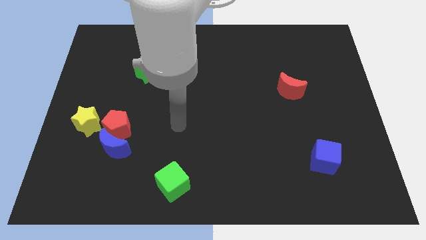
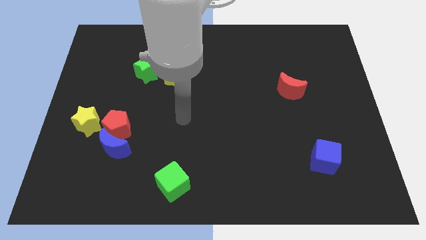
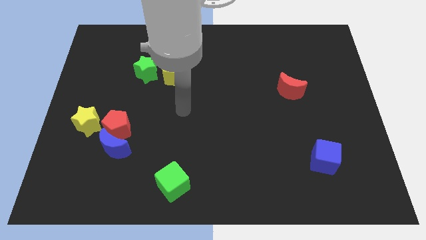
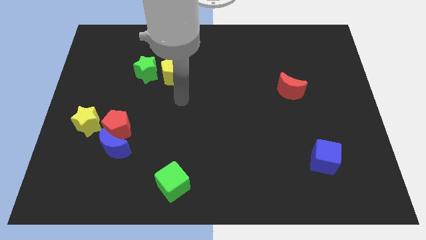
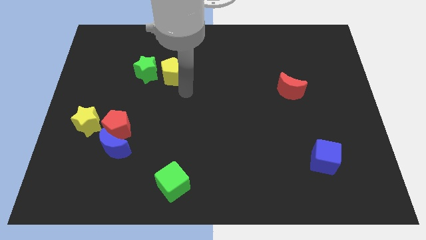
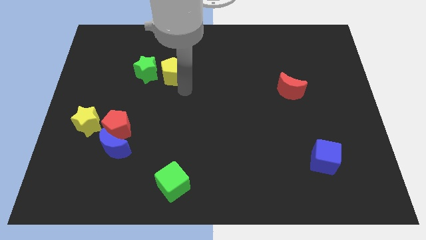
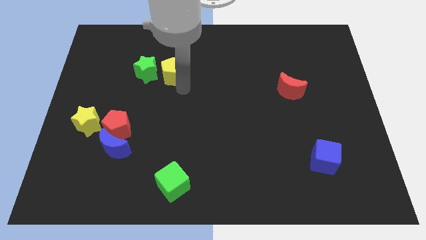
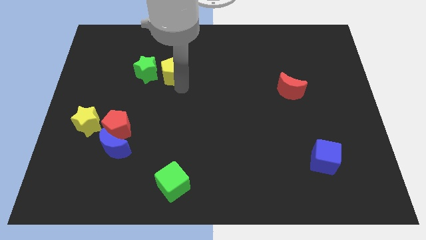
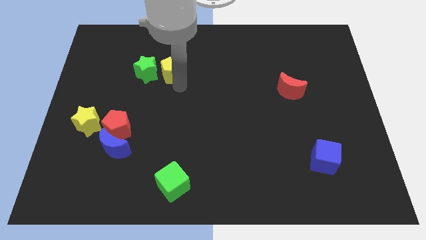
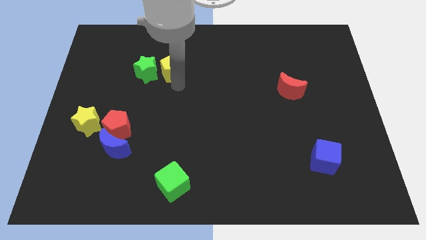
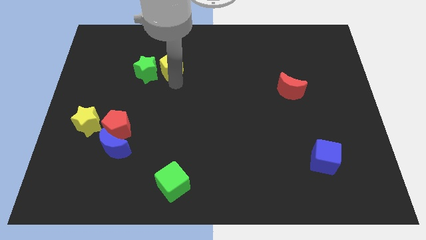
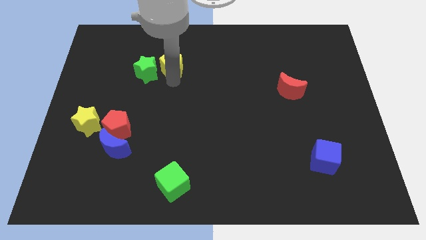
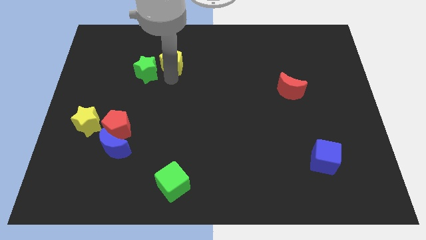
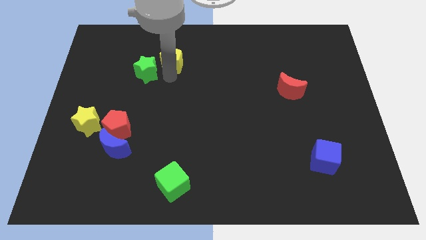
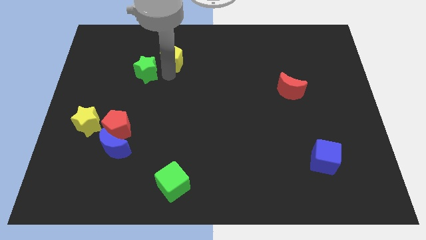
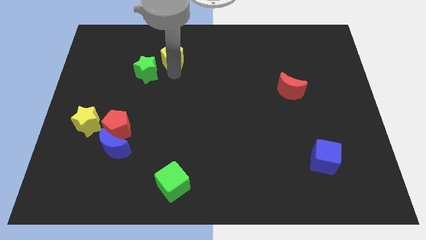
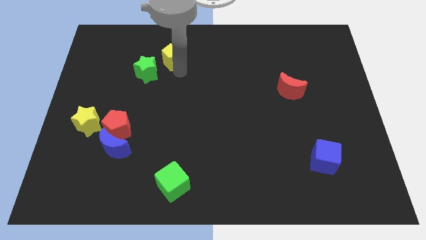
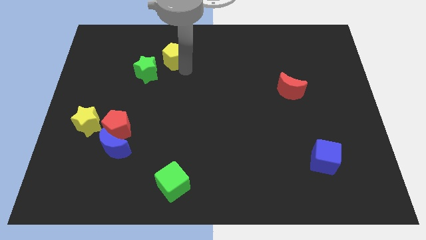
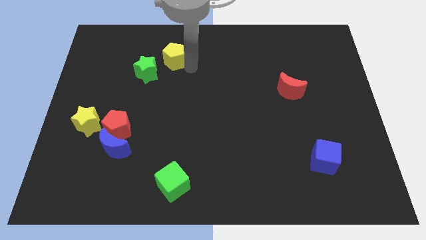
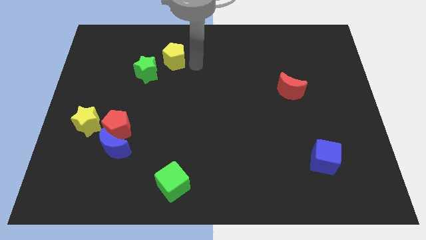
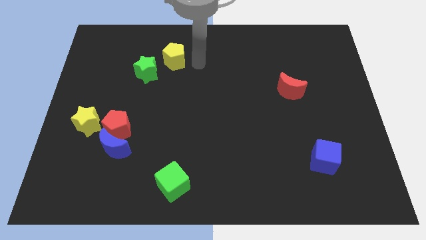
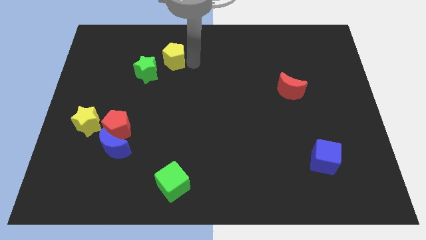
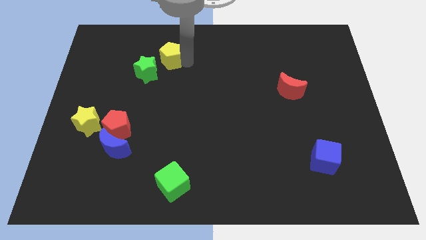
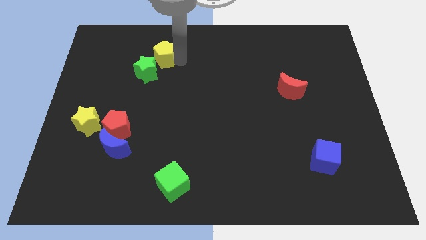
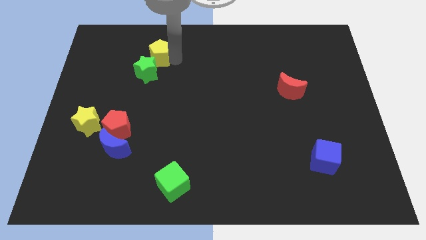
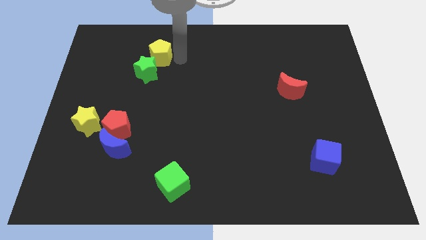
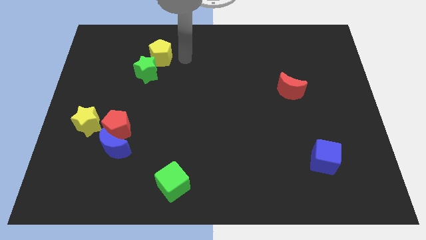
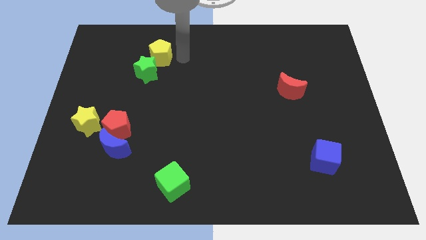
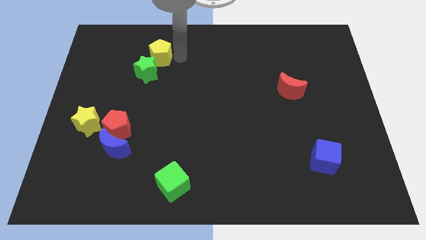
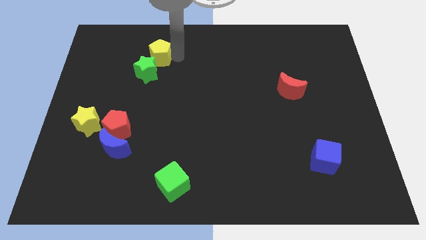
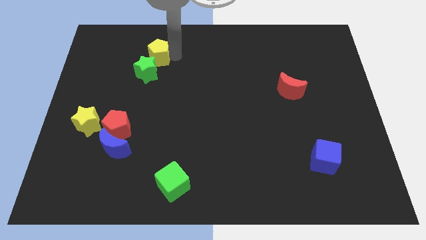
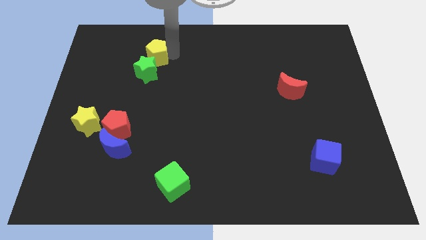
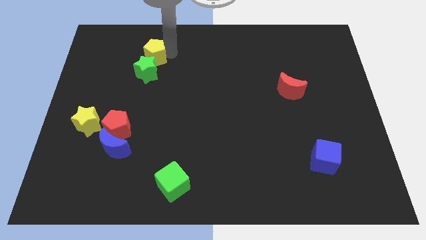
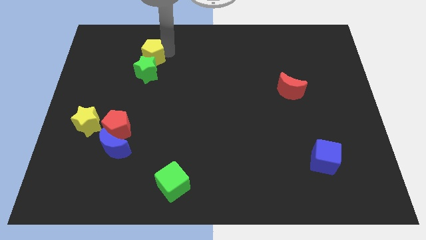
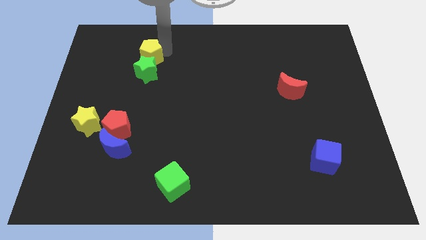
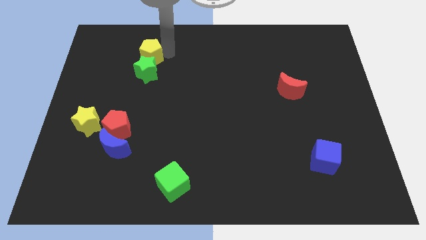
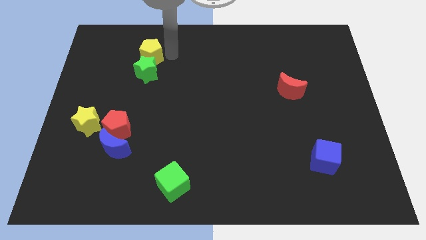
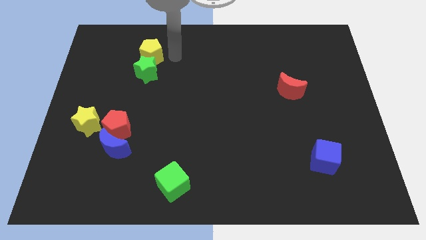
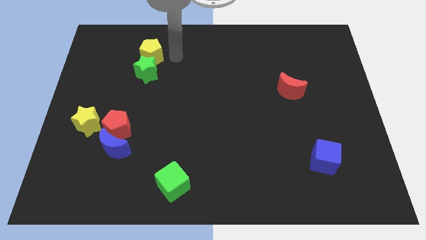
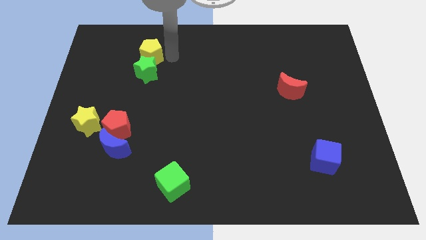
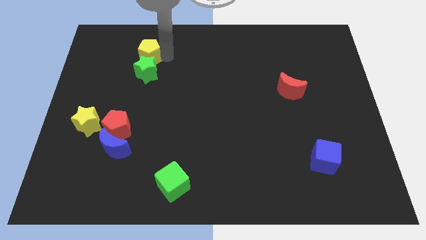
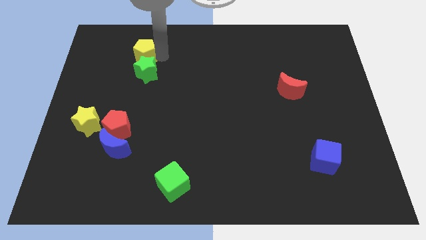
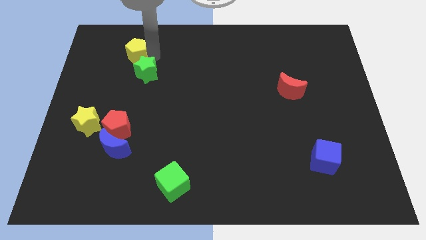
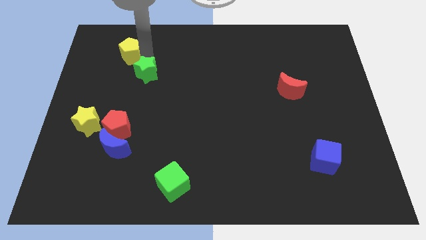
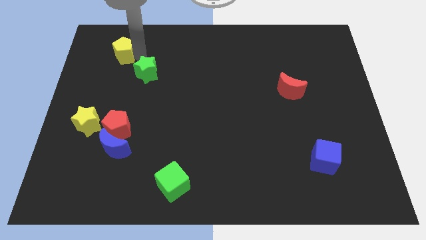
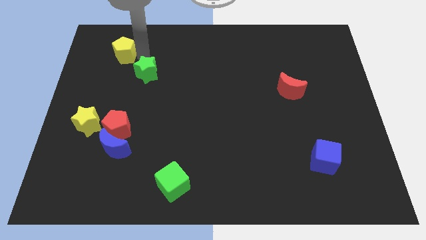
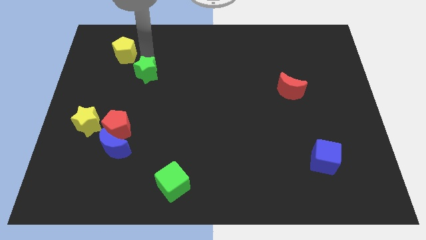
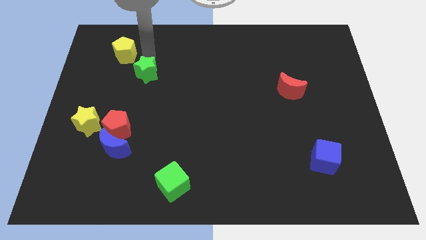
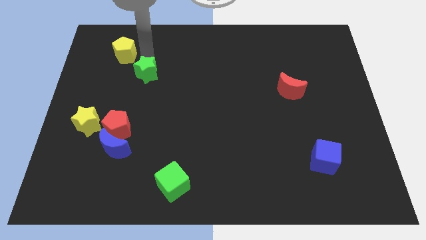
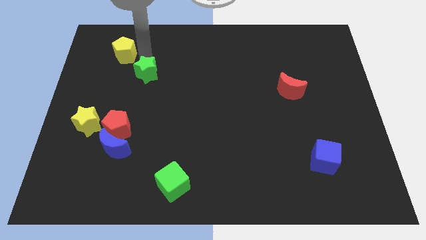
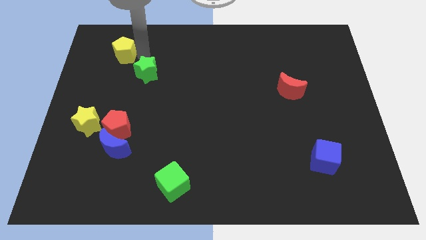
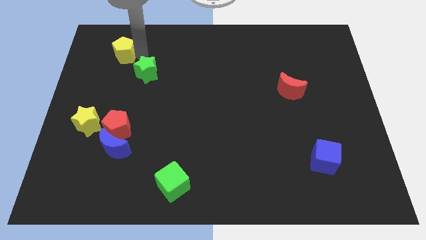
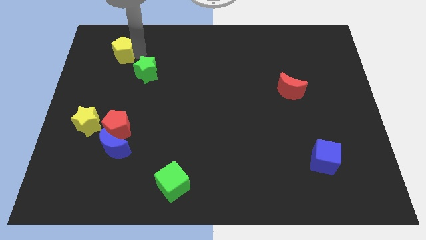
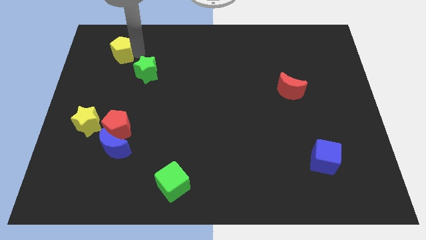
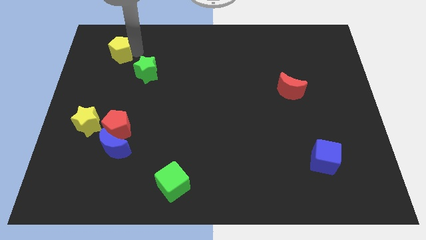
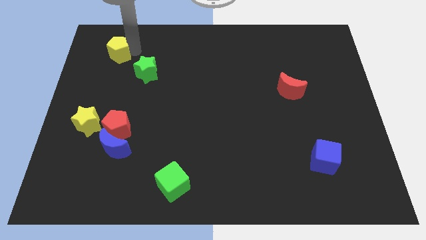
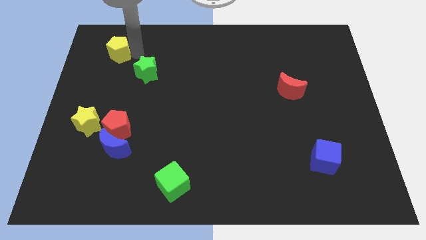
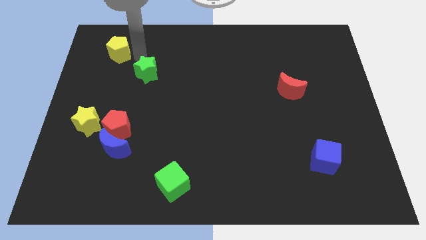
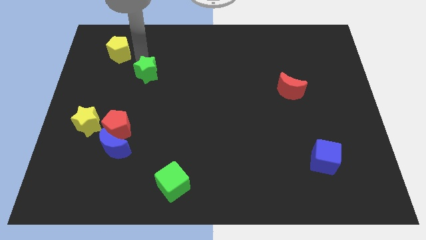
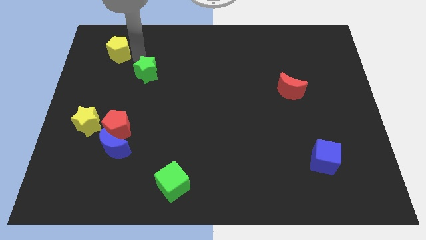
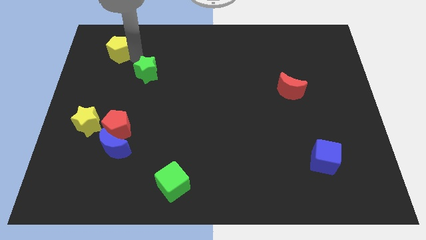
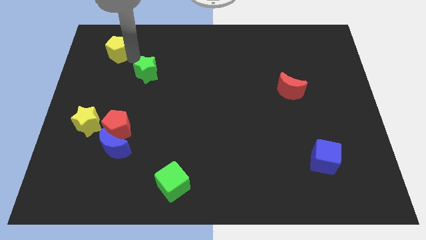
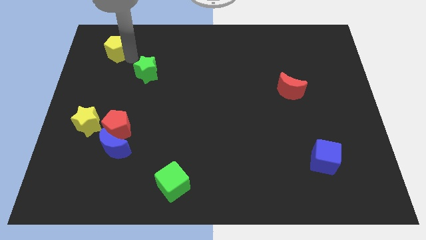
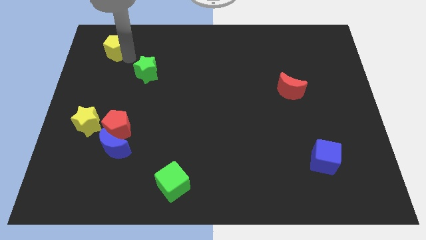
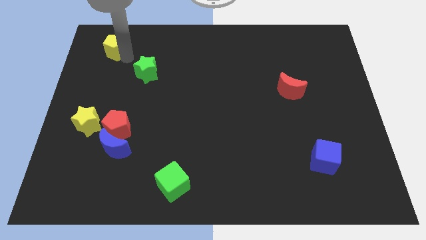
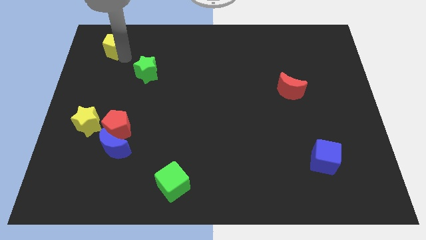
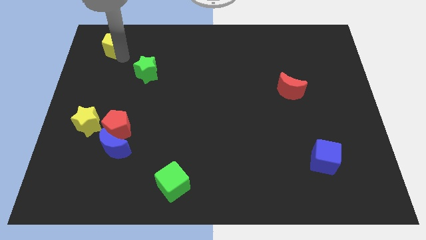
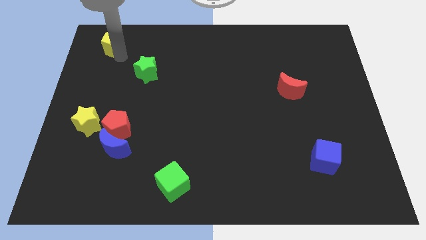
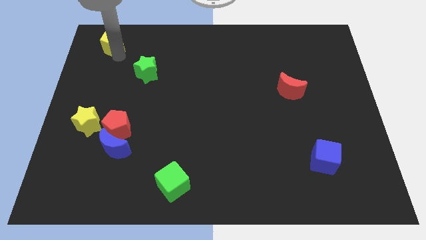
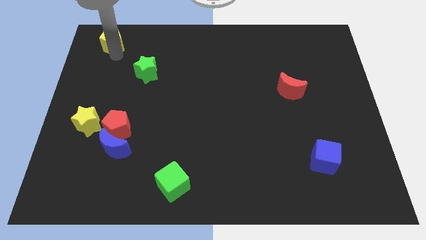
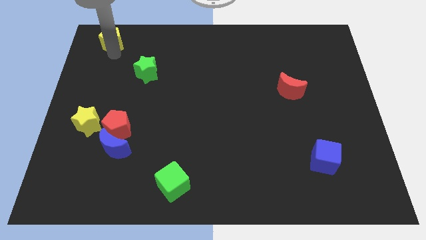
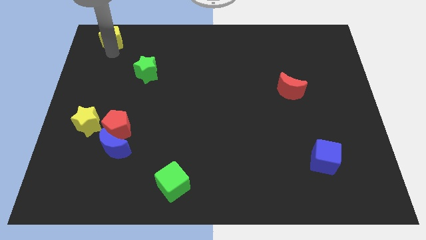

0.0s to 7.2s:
slide the yellow pentagon to the top left corner
